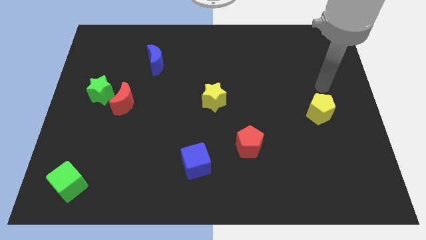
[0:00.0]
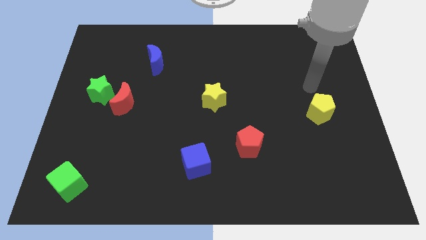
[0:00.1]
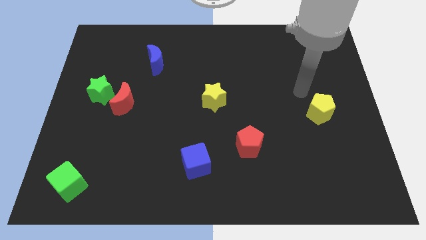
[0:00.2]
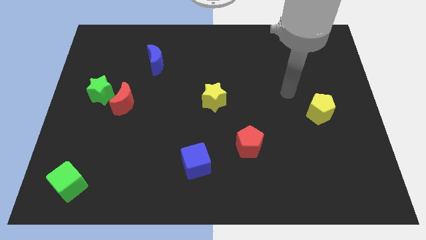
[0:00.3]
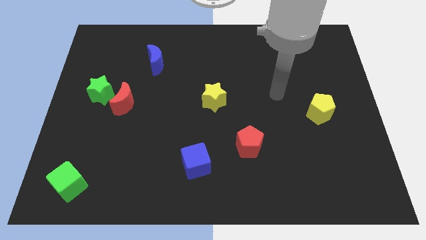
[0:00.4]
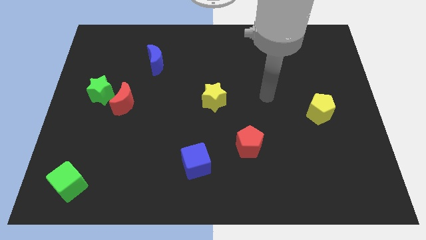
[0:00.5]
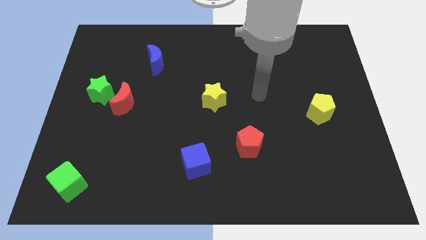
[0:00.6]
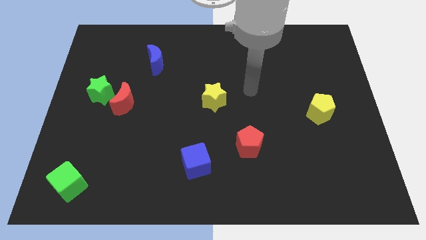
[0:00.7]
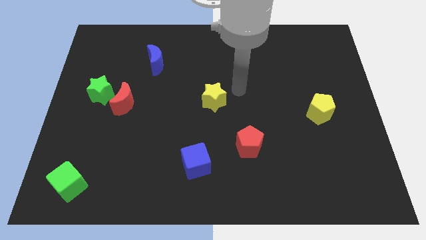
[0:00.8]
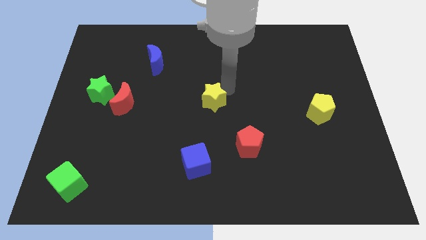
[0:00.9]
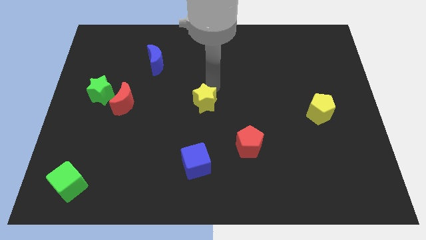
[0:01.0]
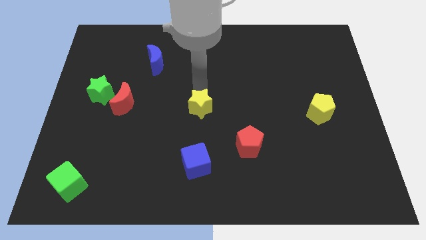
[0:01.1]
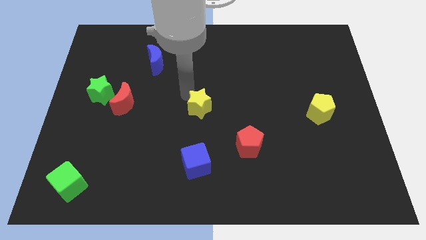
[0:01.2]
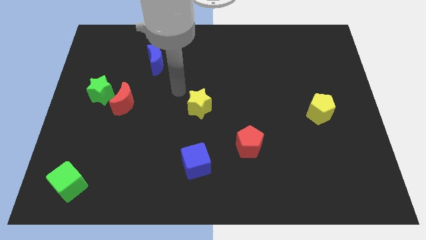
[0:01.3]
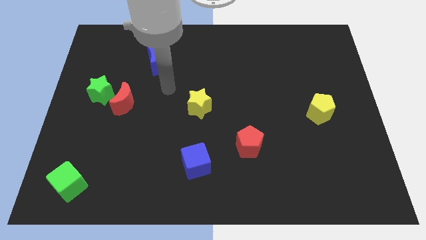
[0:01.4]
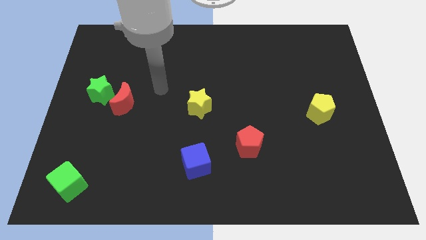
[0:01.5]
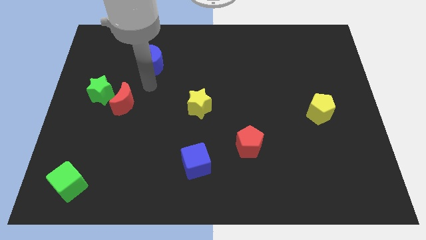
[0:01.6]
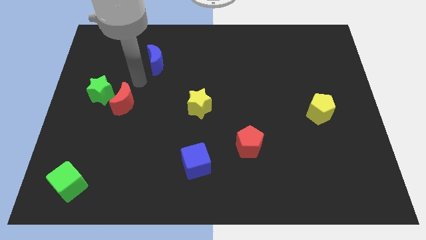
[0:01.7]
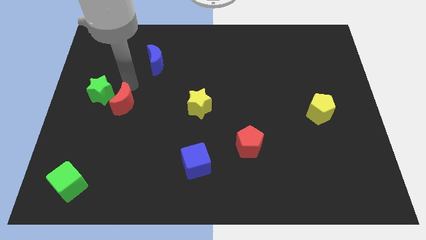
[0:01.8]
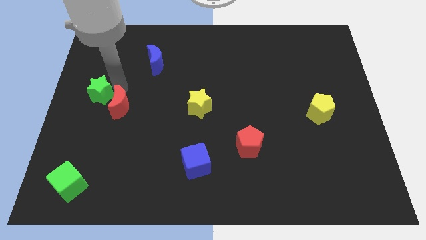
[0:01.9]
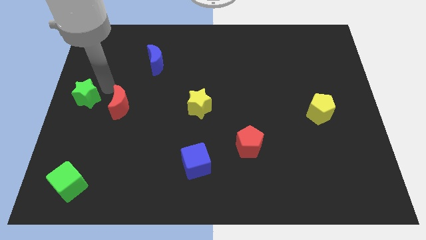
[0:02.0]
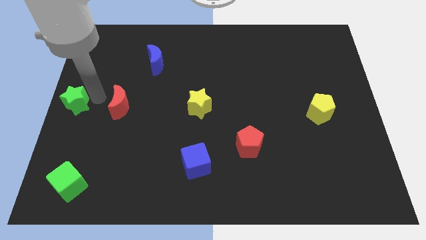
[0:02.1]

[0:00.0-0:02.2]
pull the red moon apart from the green star

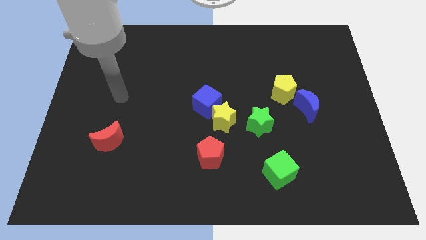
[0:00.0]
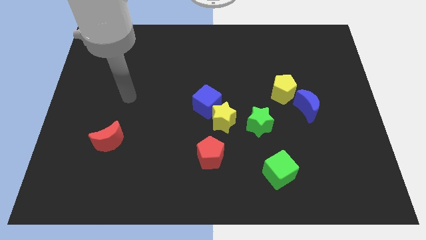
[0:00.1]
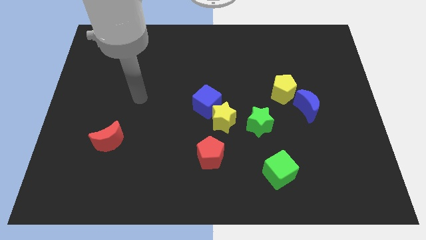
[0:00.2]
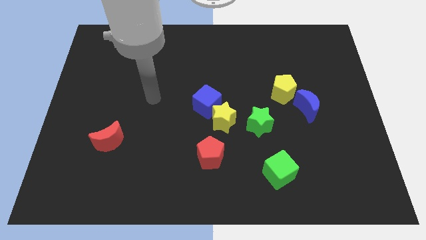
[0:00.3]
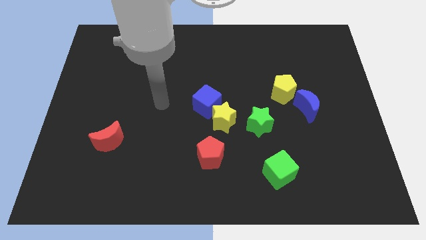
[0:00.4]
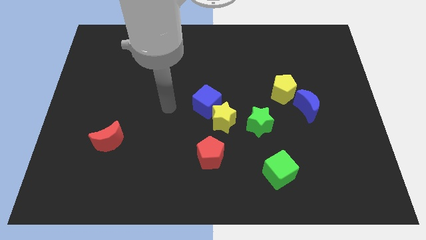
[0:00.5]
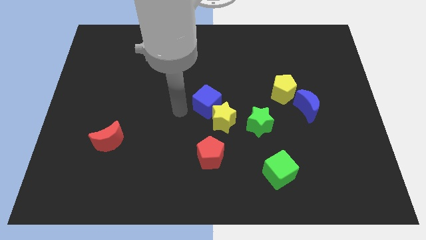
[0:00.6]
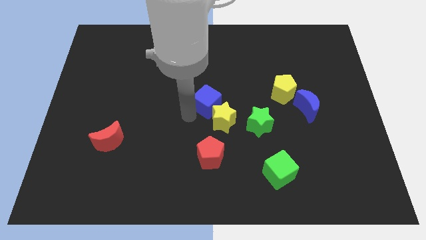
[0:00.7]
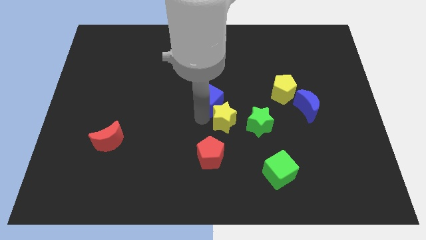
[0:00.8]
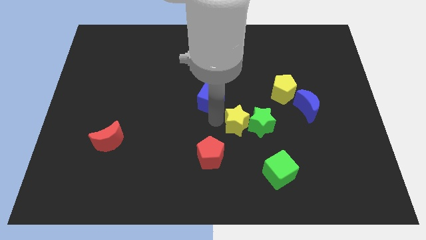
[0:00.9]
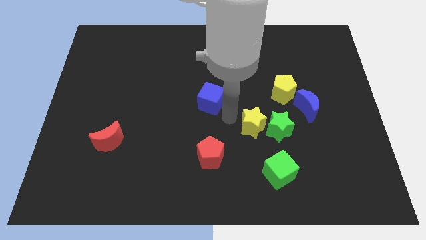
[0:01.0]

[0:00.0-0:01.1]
separate the blue cube from the yellow star

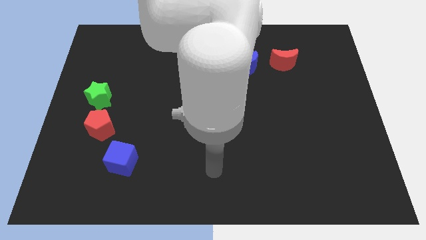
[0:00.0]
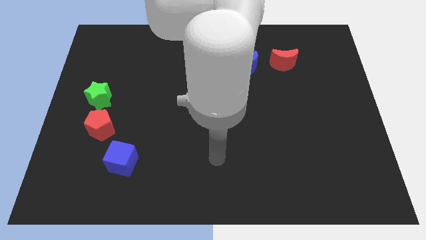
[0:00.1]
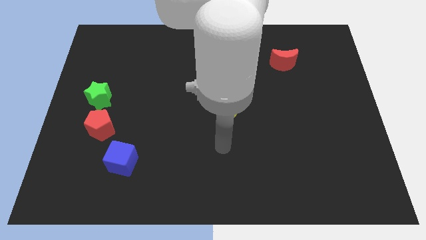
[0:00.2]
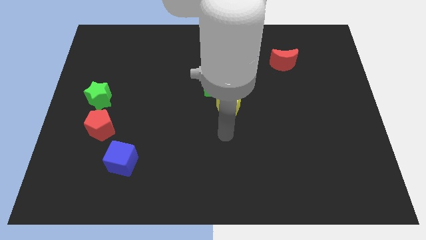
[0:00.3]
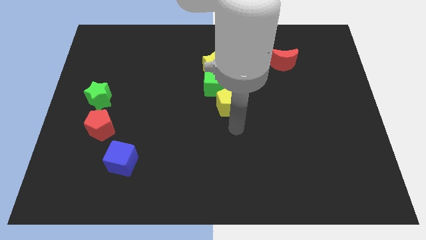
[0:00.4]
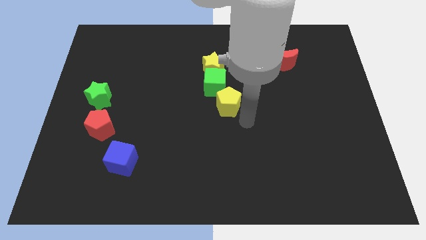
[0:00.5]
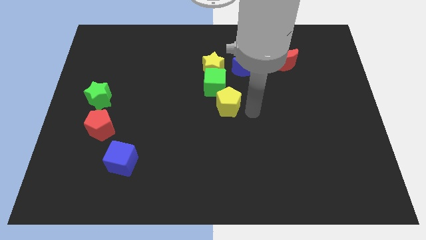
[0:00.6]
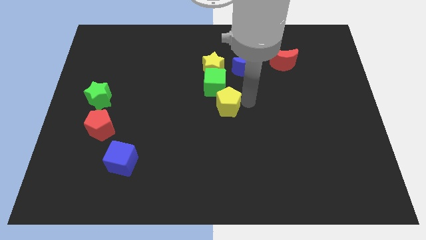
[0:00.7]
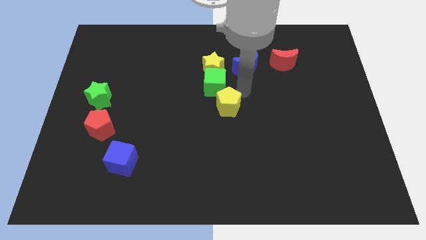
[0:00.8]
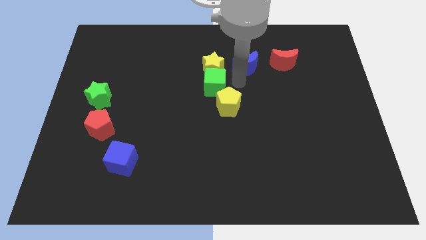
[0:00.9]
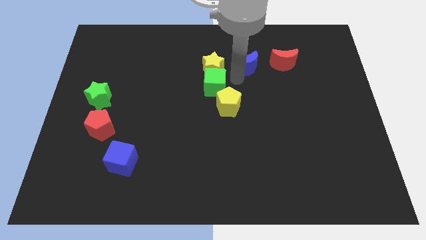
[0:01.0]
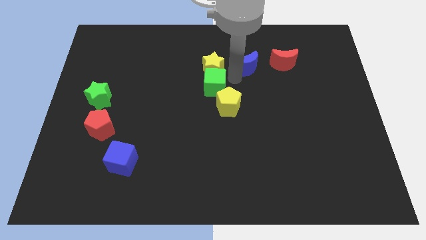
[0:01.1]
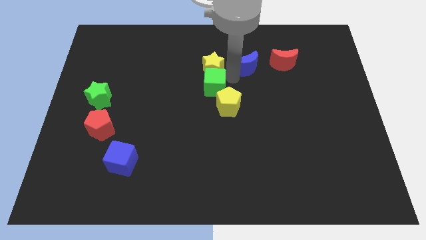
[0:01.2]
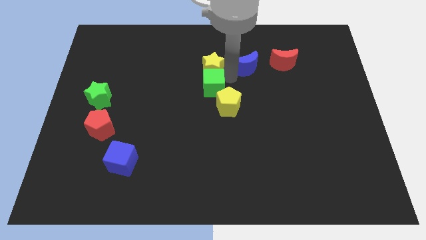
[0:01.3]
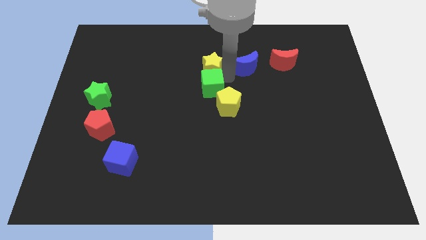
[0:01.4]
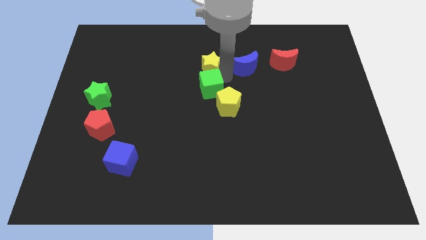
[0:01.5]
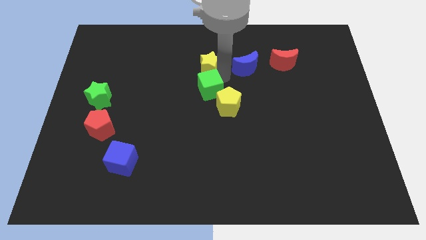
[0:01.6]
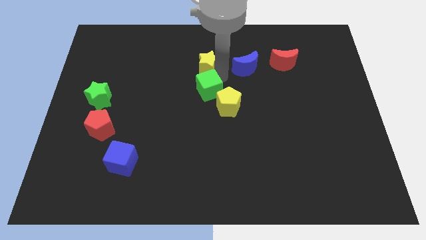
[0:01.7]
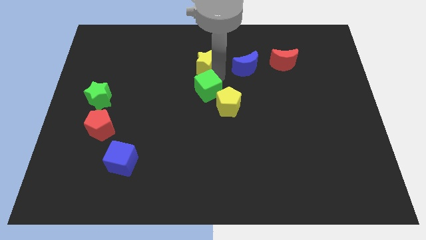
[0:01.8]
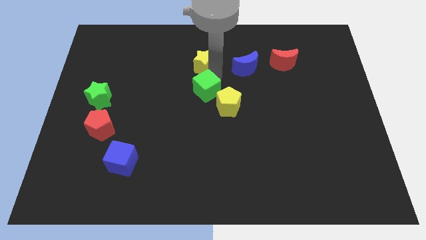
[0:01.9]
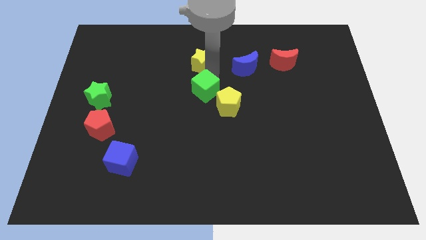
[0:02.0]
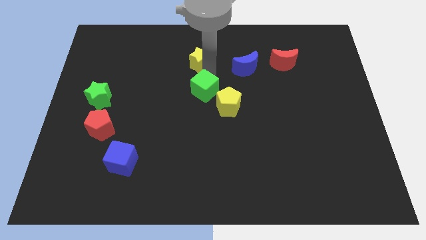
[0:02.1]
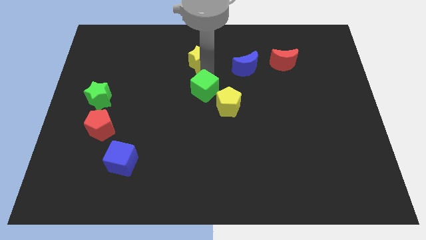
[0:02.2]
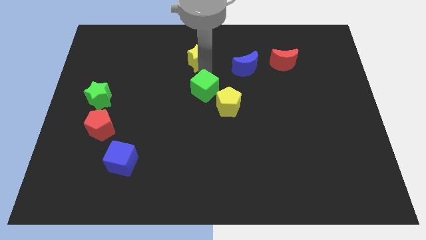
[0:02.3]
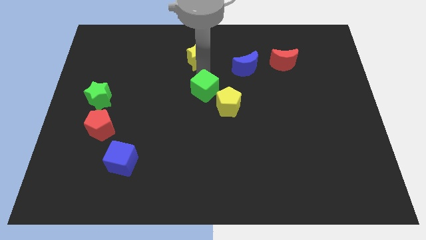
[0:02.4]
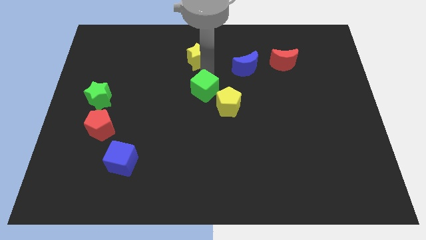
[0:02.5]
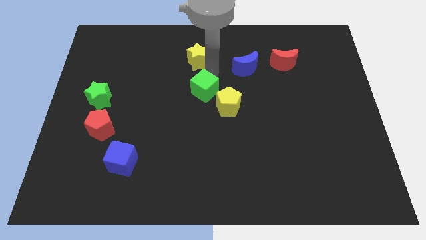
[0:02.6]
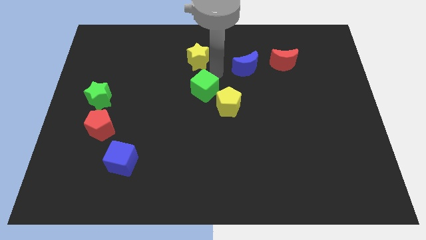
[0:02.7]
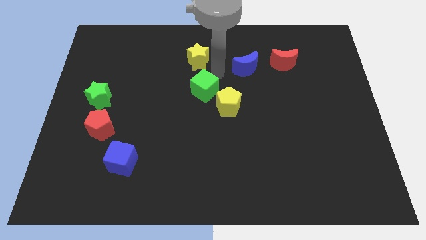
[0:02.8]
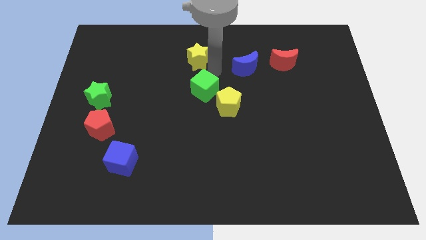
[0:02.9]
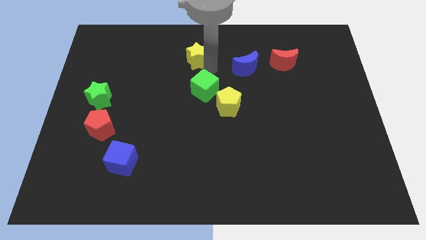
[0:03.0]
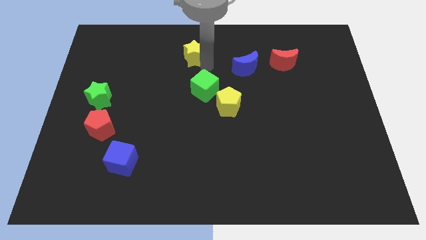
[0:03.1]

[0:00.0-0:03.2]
move the yellow star away from the green cube and blue moon

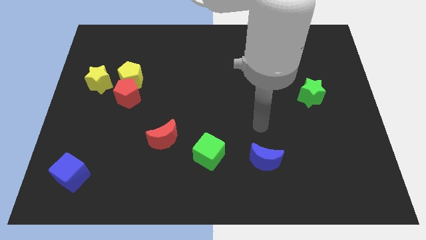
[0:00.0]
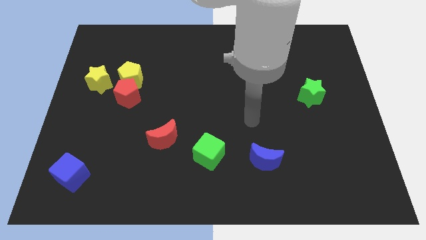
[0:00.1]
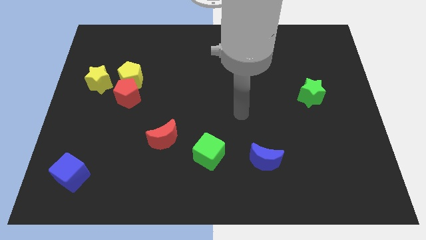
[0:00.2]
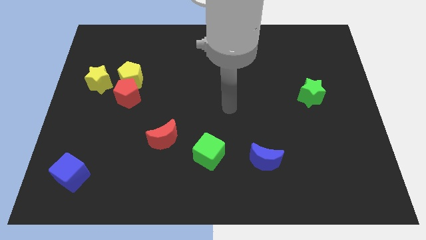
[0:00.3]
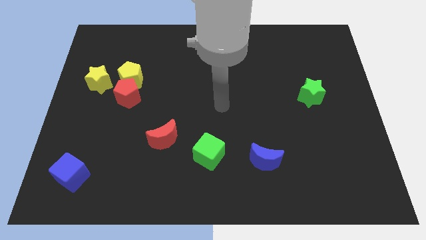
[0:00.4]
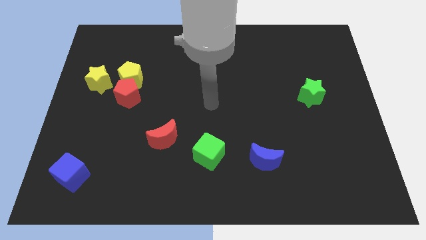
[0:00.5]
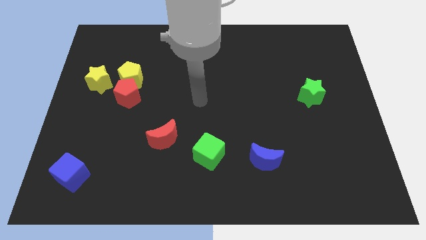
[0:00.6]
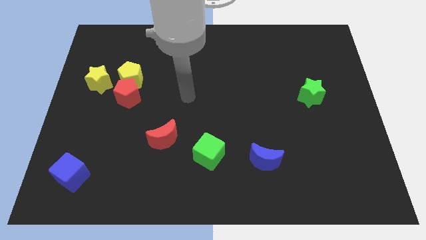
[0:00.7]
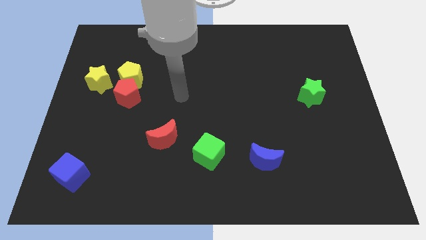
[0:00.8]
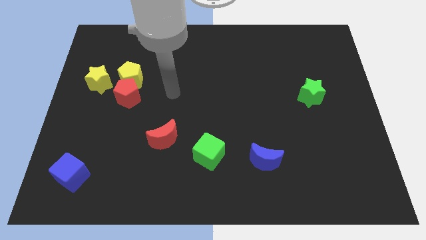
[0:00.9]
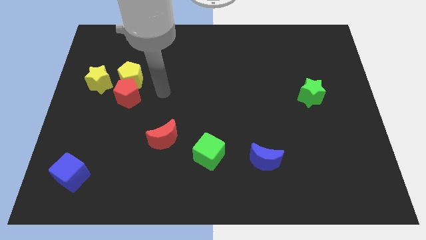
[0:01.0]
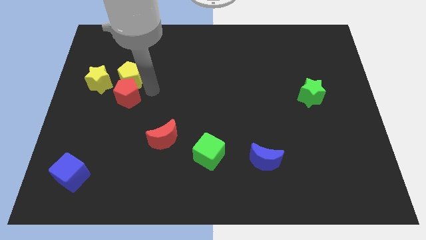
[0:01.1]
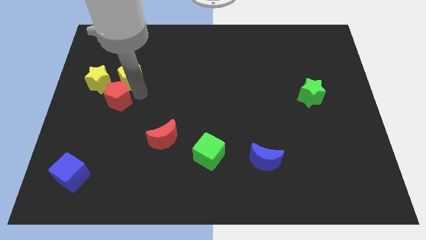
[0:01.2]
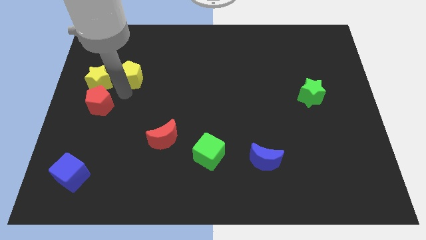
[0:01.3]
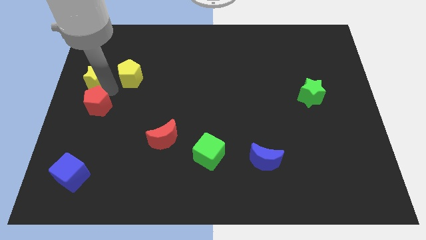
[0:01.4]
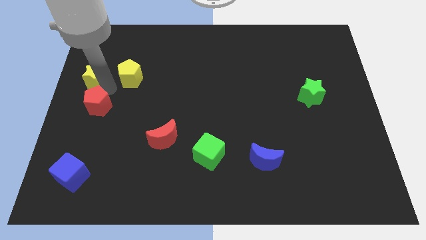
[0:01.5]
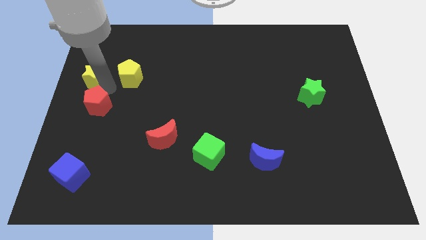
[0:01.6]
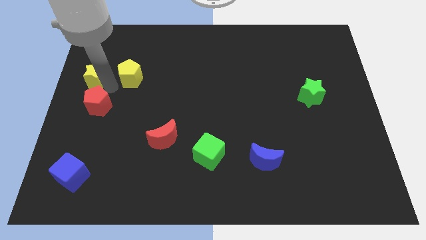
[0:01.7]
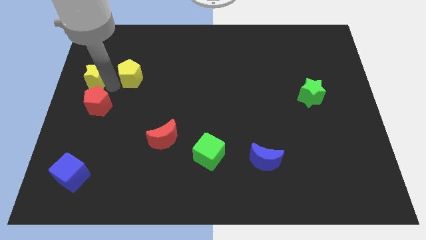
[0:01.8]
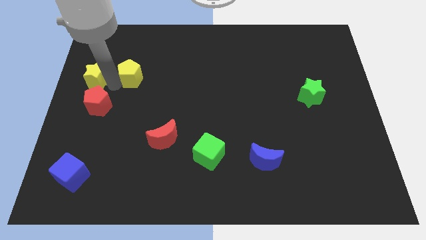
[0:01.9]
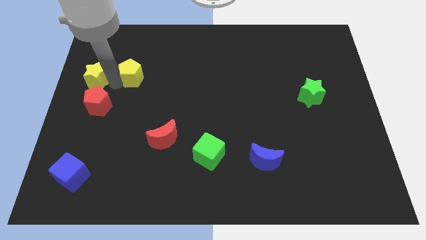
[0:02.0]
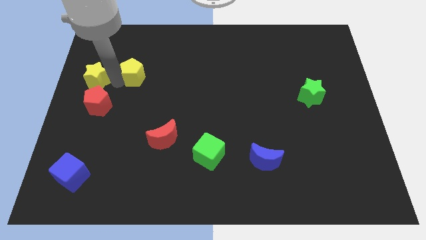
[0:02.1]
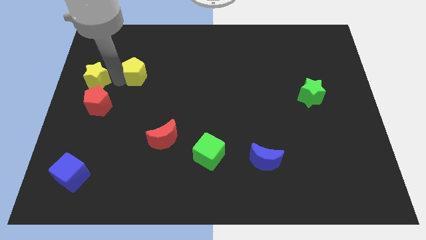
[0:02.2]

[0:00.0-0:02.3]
move the yellow pentagon away from the red pentagon and yellow star

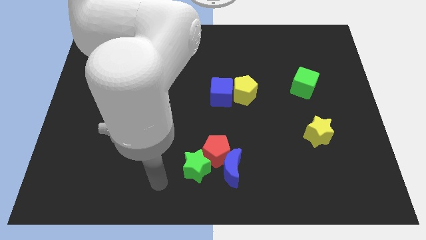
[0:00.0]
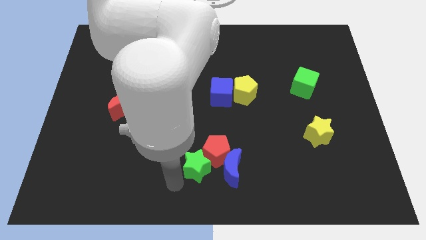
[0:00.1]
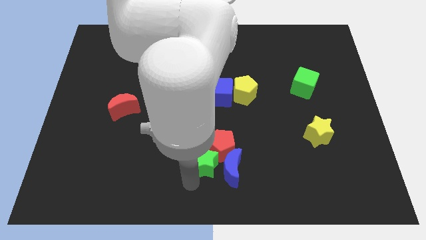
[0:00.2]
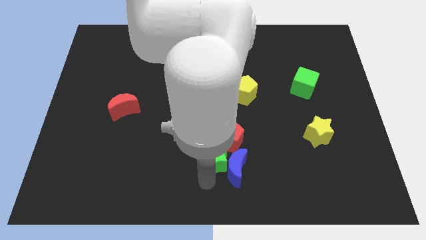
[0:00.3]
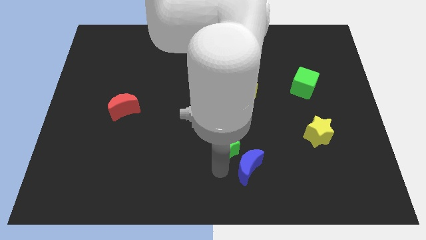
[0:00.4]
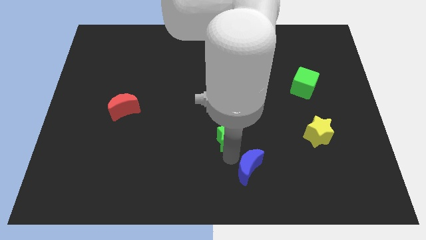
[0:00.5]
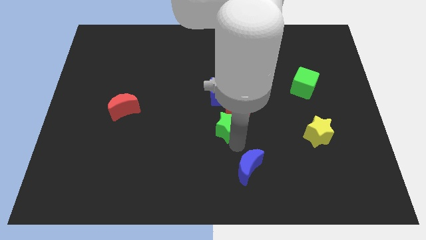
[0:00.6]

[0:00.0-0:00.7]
move the red pentagon away from the blue moon and green star

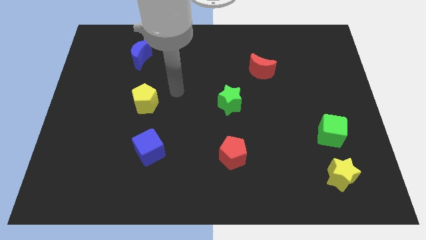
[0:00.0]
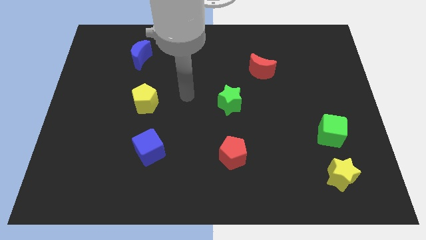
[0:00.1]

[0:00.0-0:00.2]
pull the green cube apart from the yellow star
